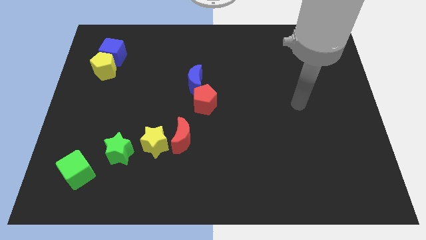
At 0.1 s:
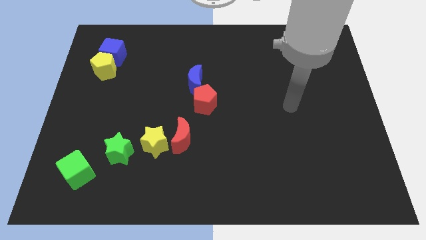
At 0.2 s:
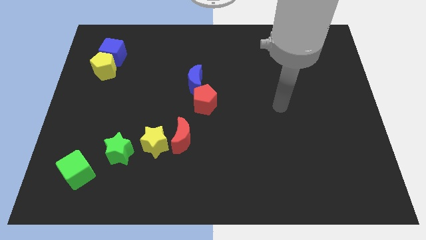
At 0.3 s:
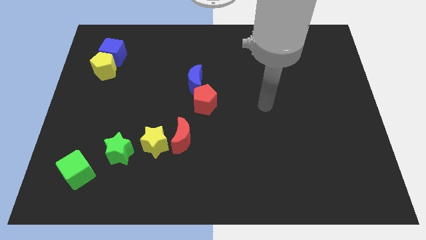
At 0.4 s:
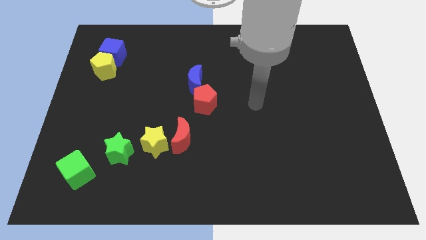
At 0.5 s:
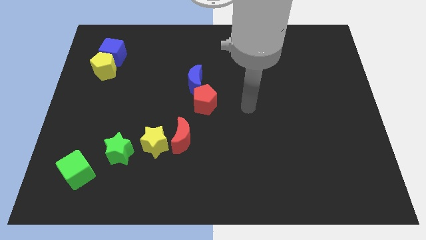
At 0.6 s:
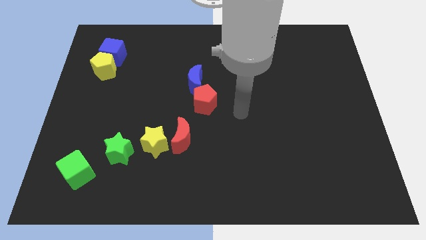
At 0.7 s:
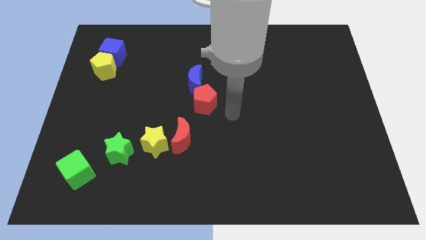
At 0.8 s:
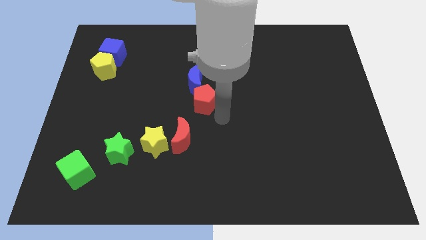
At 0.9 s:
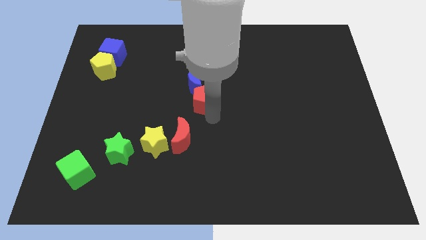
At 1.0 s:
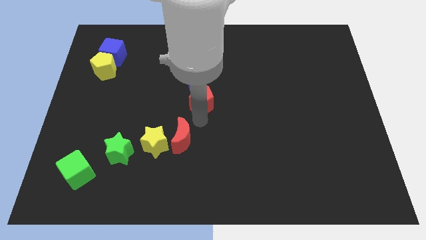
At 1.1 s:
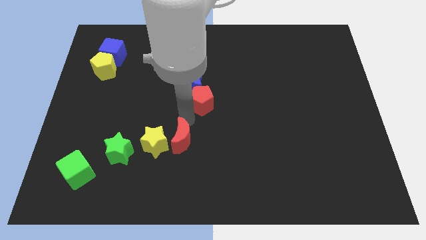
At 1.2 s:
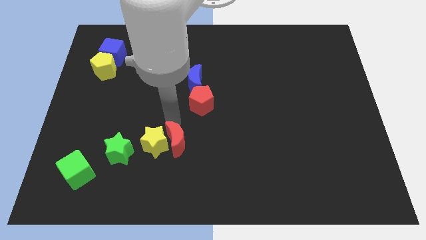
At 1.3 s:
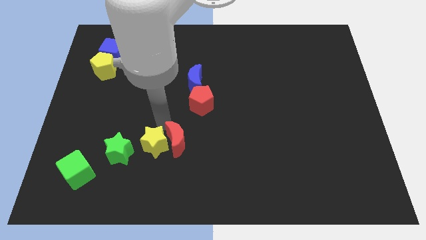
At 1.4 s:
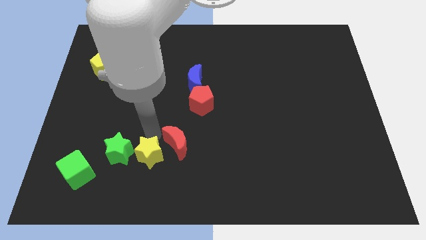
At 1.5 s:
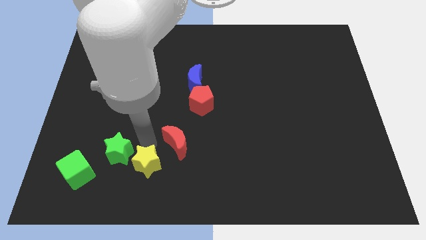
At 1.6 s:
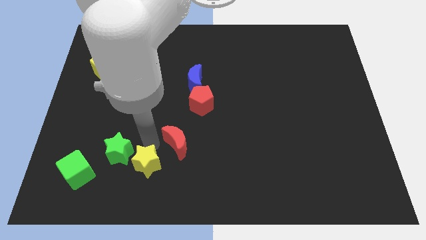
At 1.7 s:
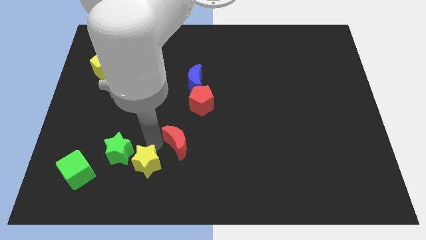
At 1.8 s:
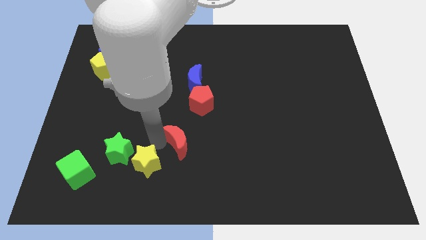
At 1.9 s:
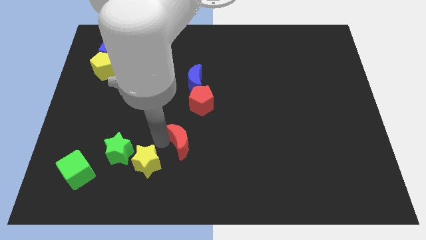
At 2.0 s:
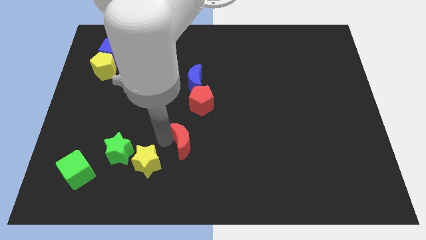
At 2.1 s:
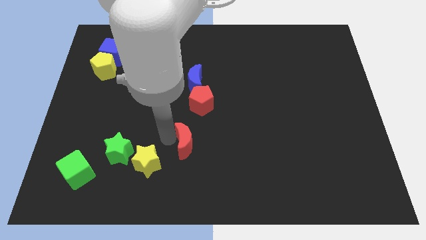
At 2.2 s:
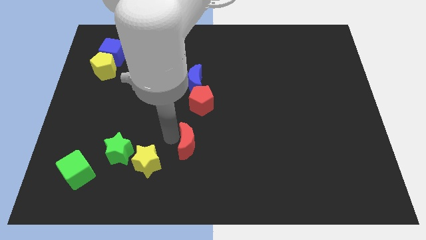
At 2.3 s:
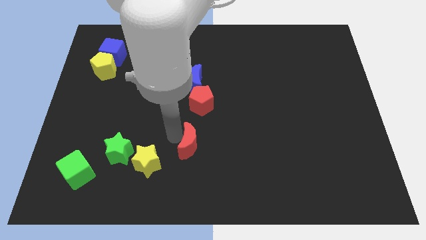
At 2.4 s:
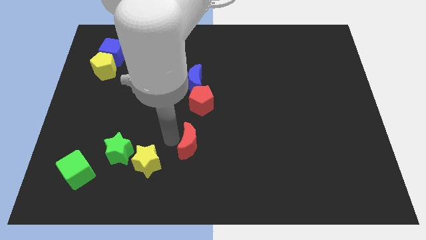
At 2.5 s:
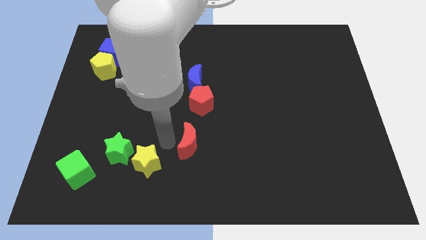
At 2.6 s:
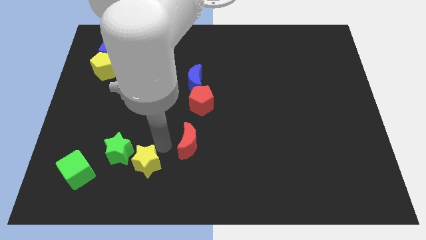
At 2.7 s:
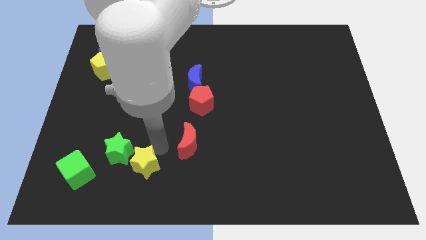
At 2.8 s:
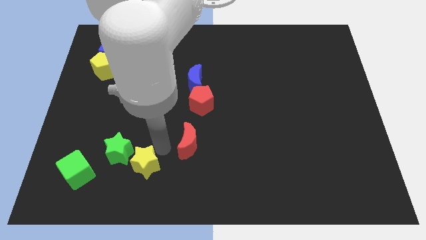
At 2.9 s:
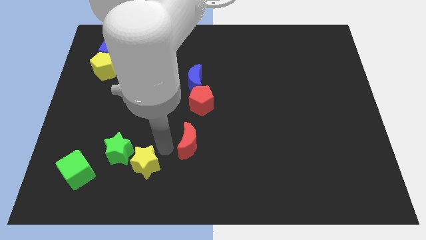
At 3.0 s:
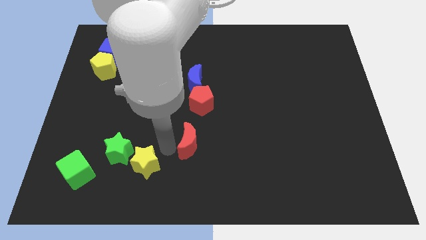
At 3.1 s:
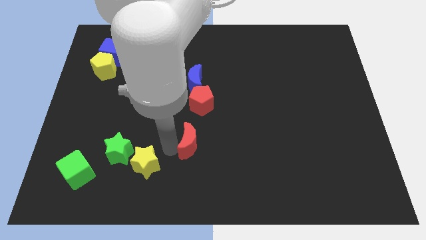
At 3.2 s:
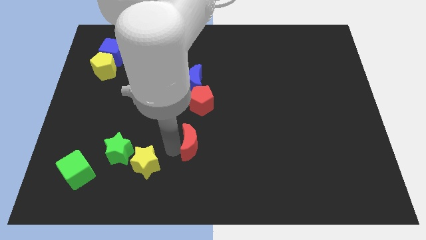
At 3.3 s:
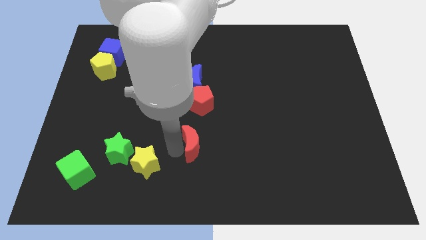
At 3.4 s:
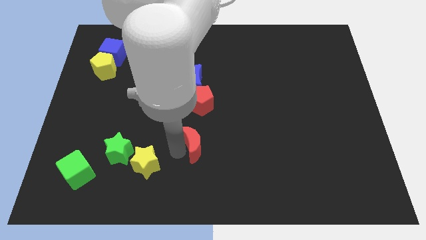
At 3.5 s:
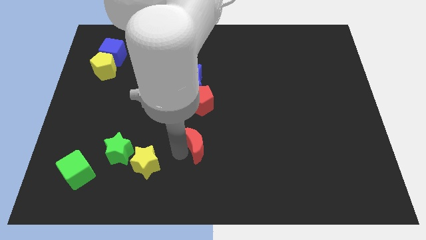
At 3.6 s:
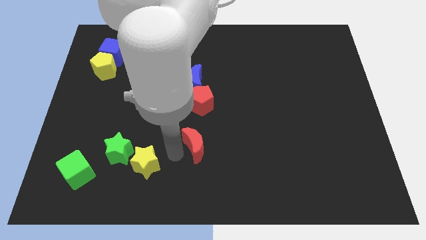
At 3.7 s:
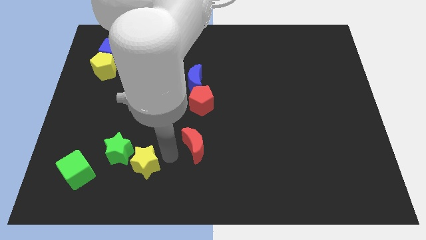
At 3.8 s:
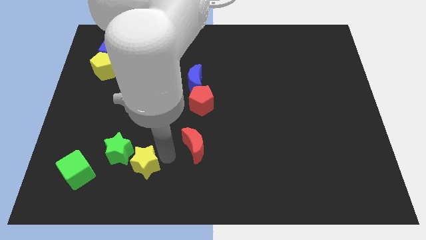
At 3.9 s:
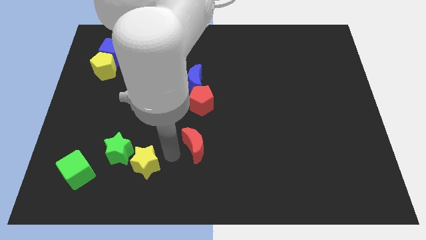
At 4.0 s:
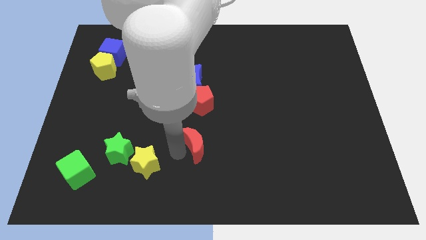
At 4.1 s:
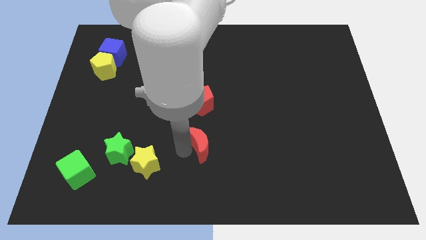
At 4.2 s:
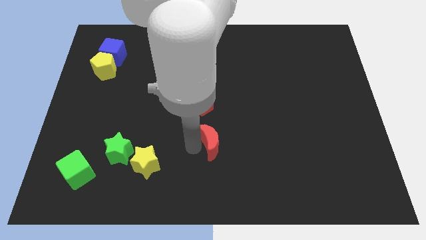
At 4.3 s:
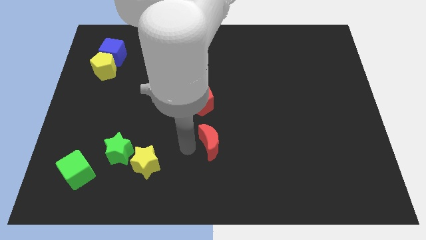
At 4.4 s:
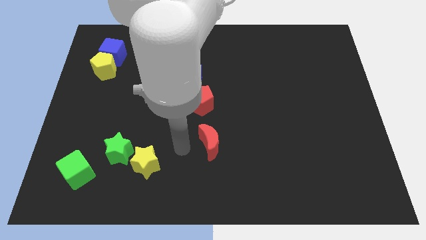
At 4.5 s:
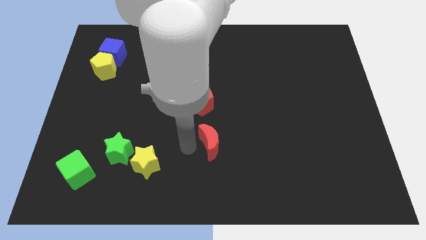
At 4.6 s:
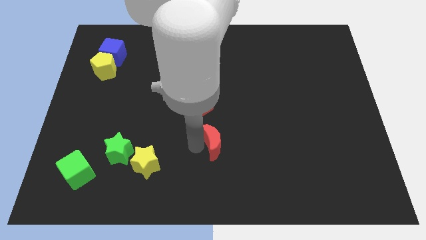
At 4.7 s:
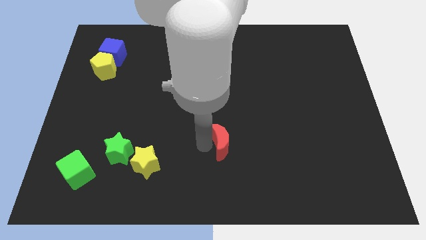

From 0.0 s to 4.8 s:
slide the red moon a little bit right

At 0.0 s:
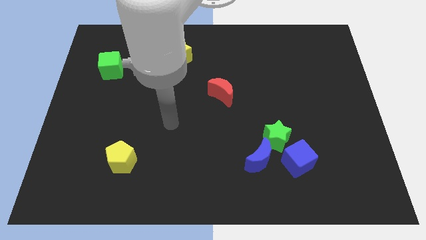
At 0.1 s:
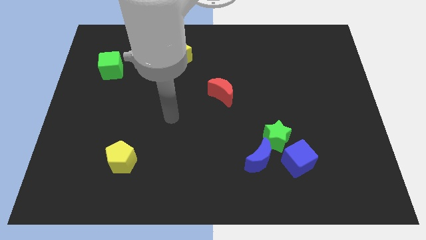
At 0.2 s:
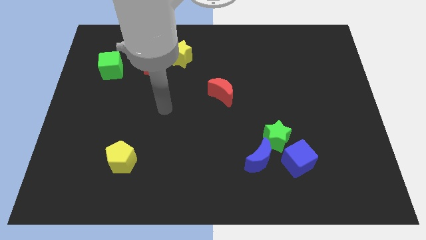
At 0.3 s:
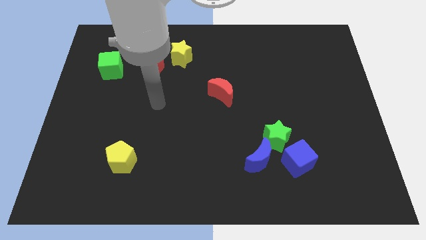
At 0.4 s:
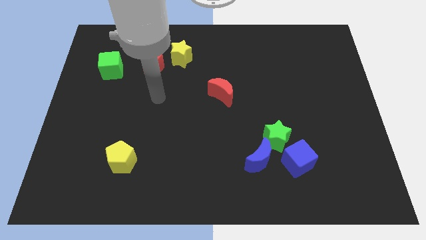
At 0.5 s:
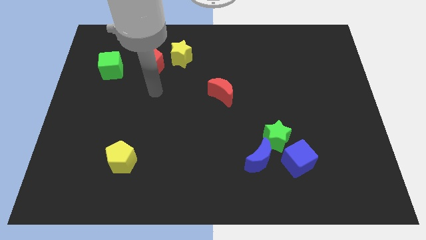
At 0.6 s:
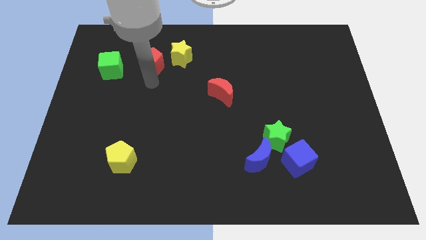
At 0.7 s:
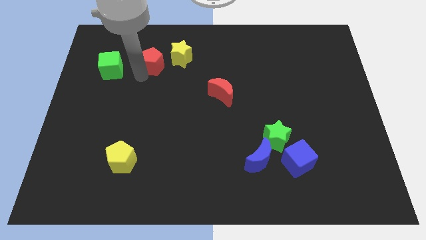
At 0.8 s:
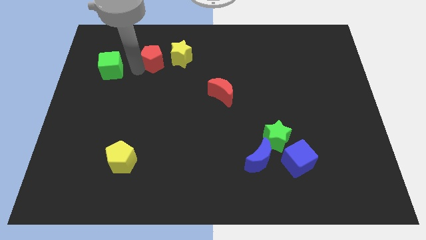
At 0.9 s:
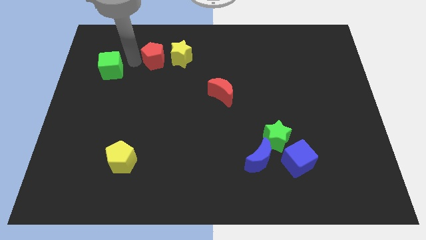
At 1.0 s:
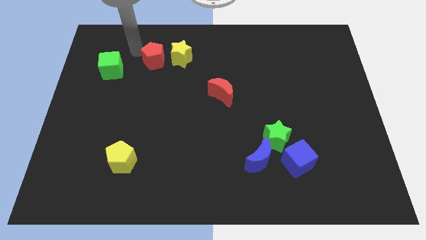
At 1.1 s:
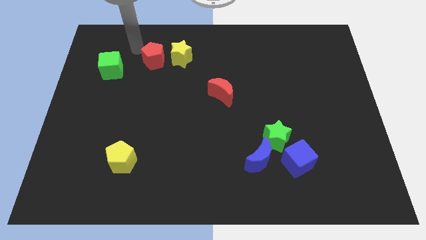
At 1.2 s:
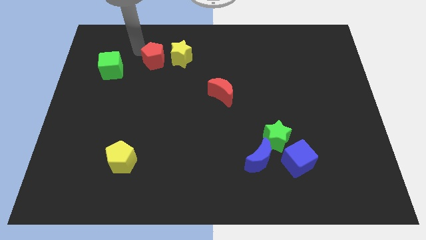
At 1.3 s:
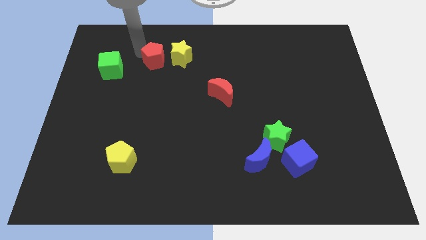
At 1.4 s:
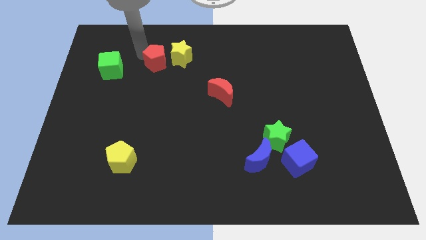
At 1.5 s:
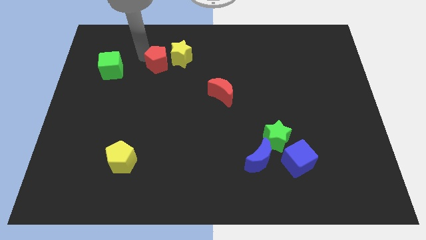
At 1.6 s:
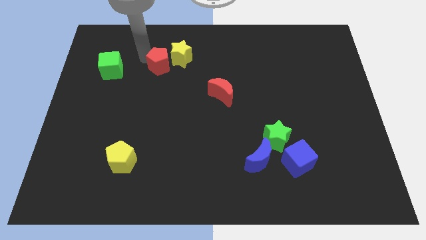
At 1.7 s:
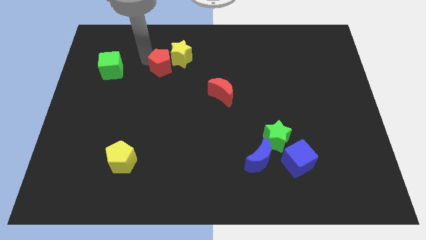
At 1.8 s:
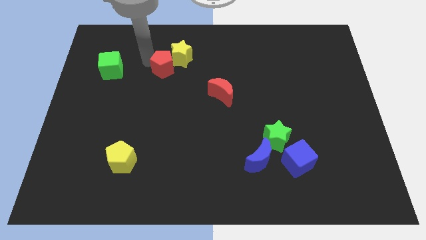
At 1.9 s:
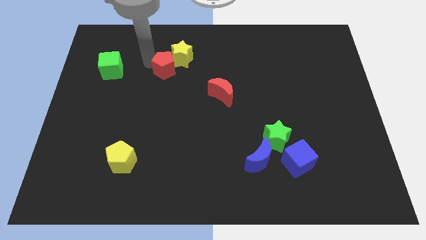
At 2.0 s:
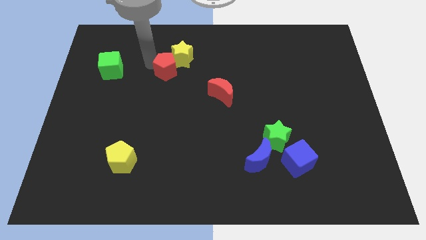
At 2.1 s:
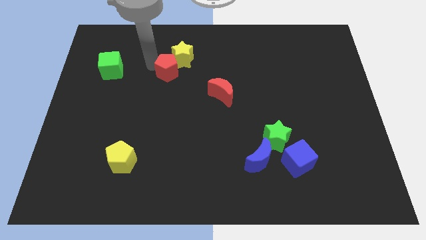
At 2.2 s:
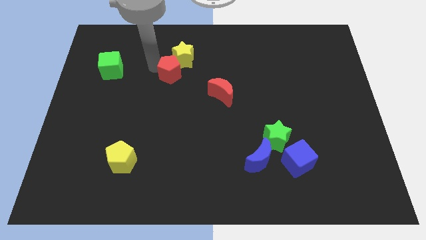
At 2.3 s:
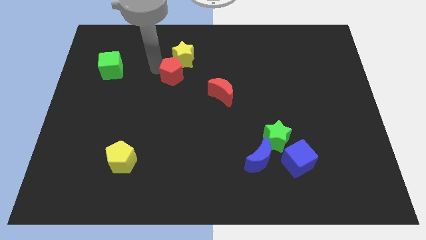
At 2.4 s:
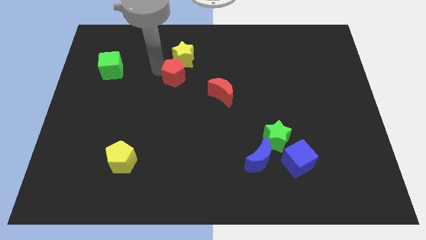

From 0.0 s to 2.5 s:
slide the red pentagon down and to the right a little

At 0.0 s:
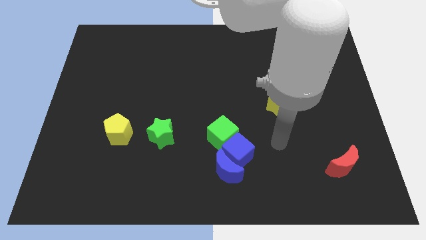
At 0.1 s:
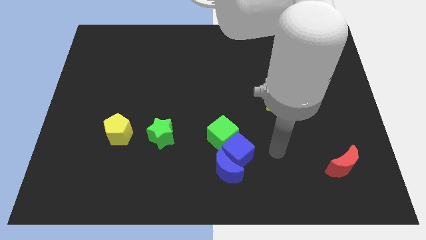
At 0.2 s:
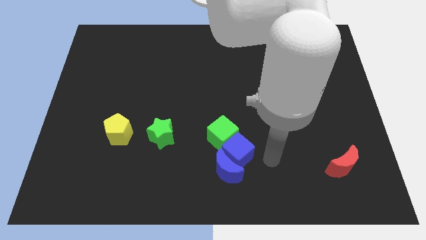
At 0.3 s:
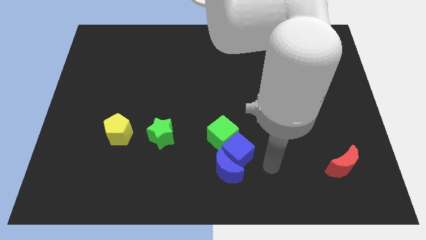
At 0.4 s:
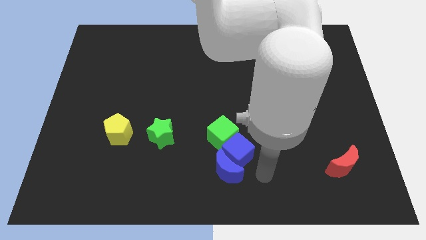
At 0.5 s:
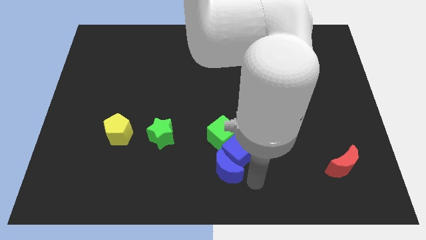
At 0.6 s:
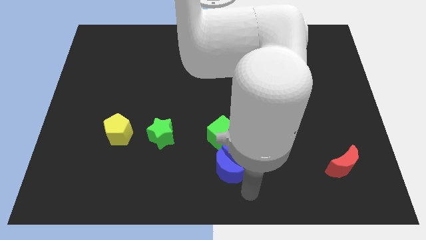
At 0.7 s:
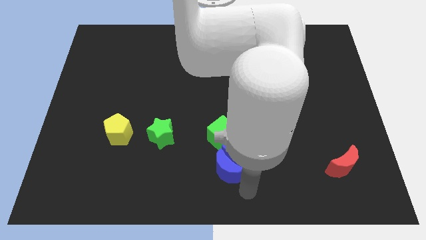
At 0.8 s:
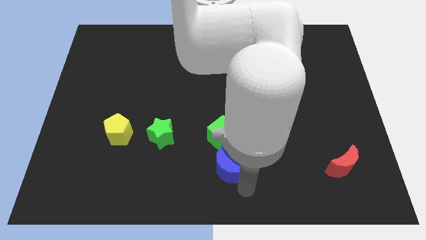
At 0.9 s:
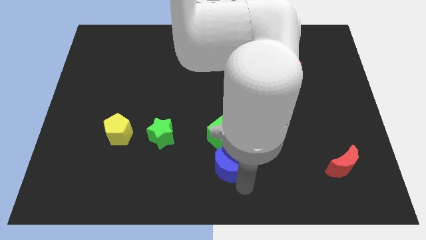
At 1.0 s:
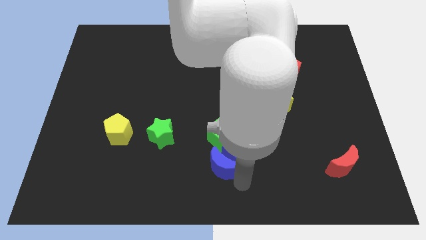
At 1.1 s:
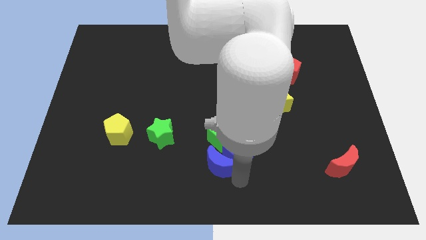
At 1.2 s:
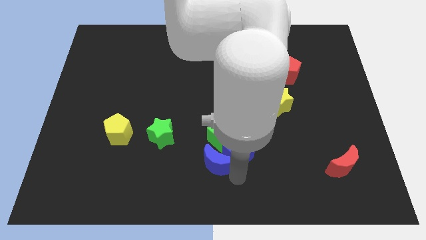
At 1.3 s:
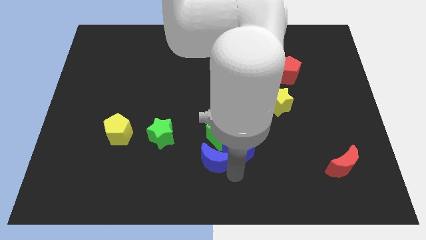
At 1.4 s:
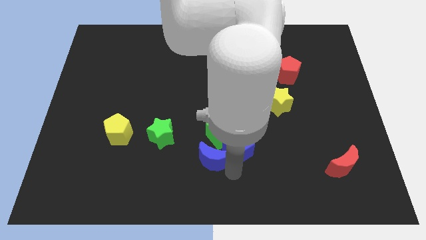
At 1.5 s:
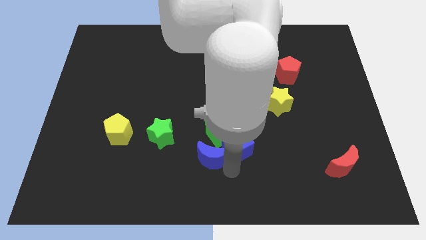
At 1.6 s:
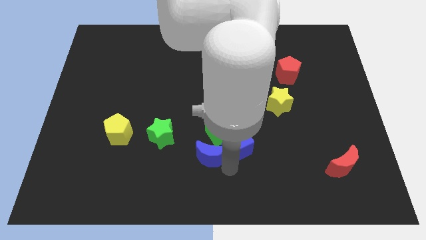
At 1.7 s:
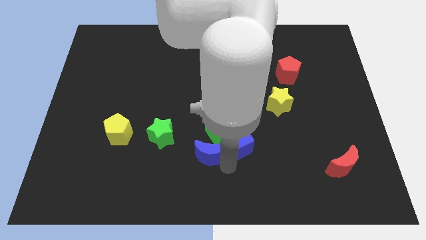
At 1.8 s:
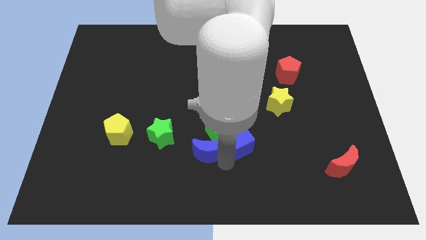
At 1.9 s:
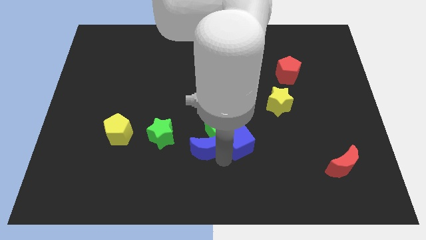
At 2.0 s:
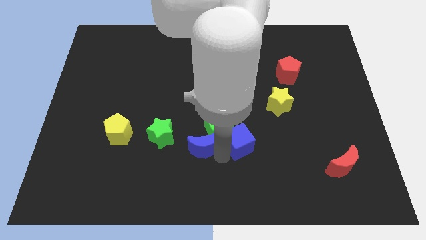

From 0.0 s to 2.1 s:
move the blue moon a little upwards and then left
